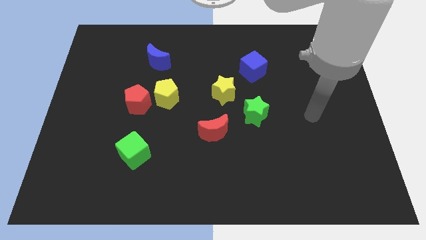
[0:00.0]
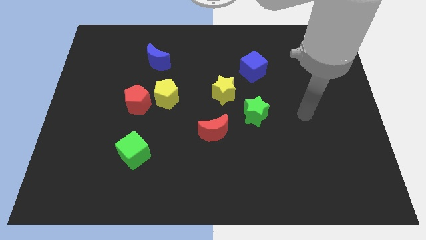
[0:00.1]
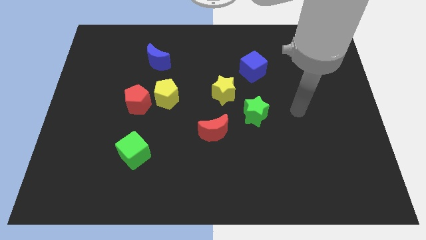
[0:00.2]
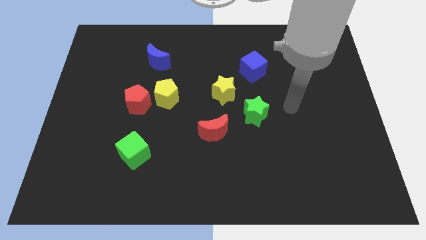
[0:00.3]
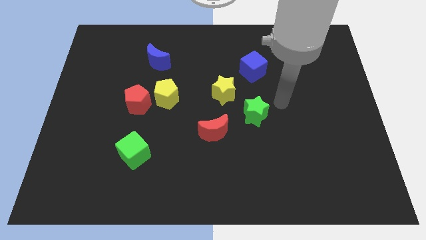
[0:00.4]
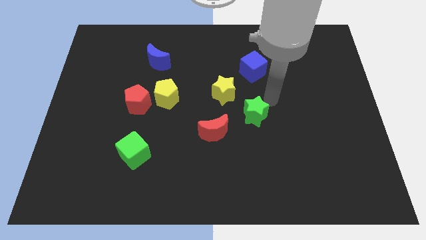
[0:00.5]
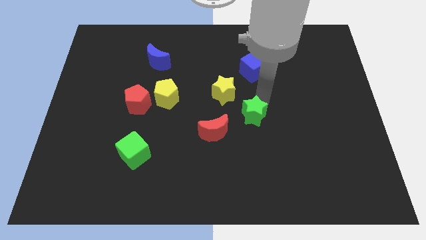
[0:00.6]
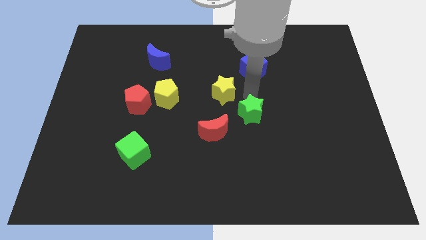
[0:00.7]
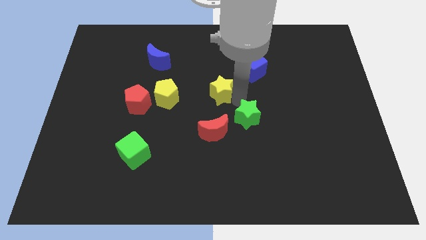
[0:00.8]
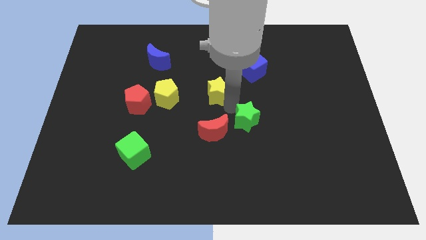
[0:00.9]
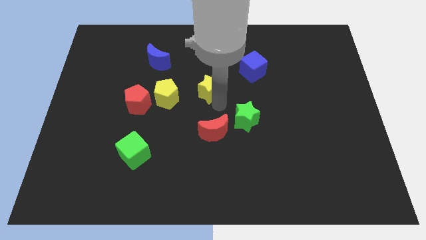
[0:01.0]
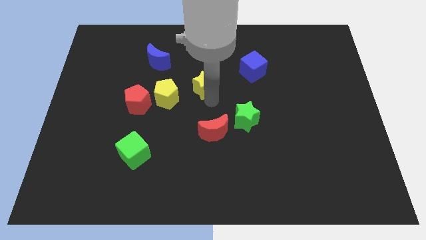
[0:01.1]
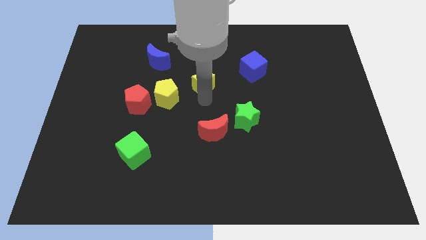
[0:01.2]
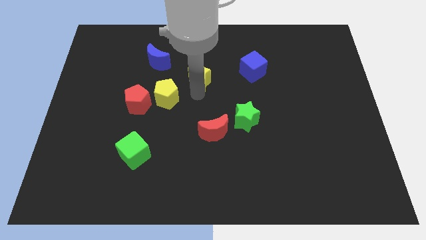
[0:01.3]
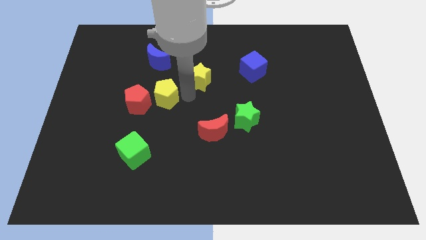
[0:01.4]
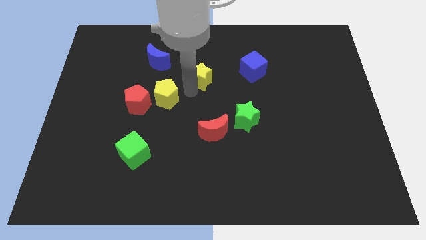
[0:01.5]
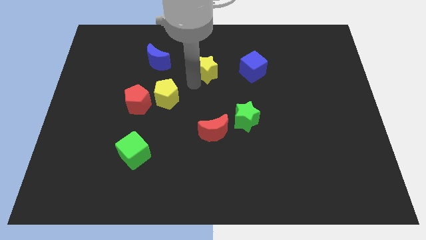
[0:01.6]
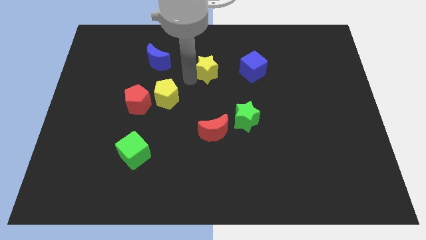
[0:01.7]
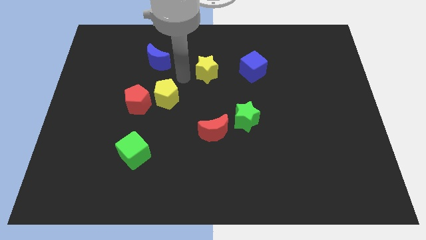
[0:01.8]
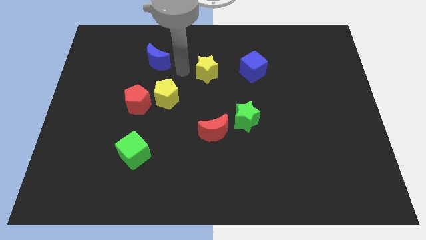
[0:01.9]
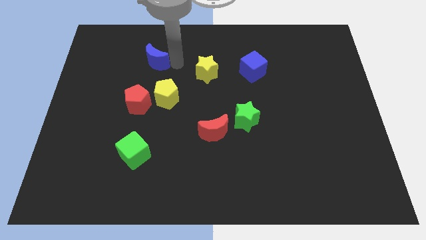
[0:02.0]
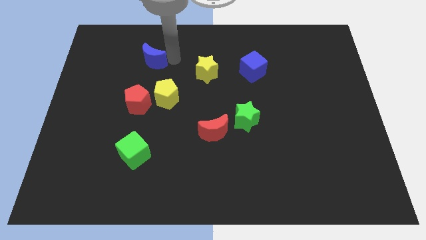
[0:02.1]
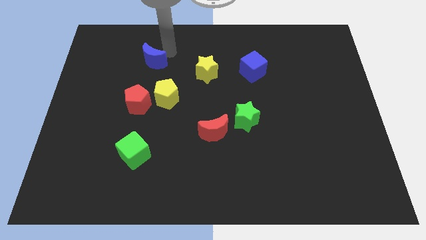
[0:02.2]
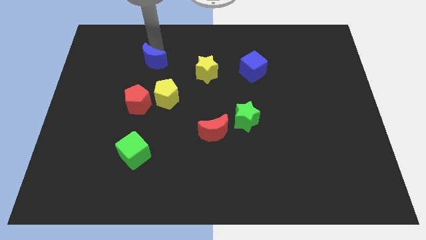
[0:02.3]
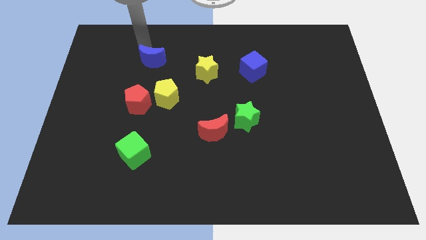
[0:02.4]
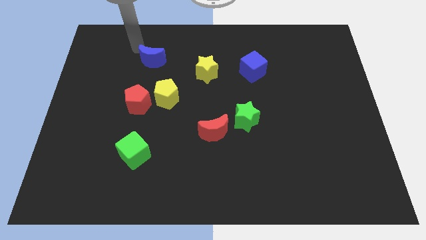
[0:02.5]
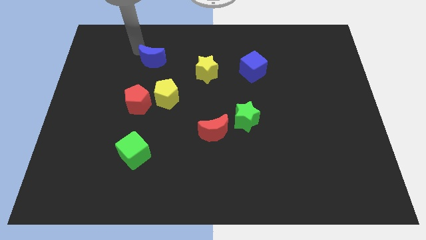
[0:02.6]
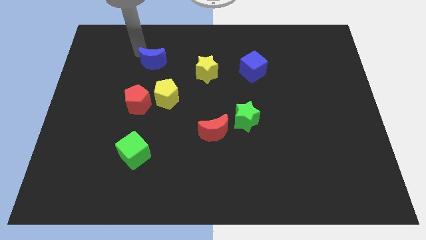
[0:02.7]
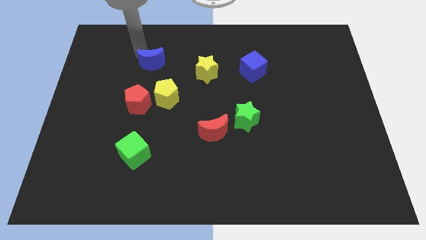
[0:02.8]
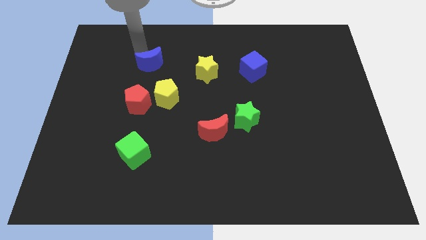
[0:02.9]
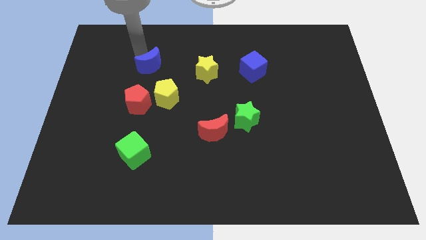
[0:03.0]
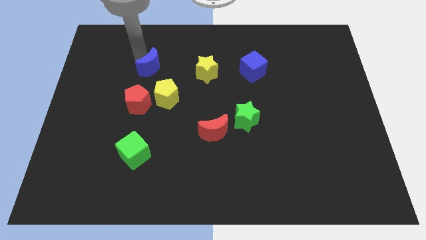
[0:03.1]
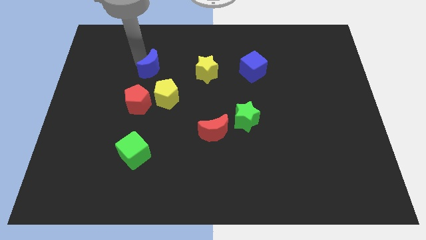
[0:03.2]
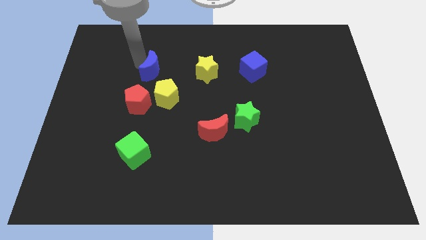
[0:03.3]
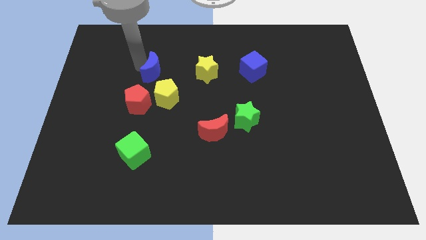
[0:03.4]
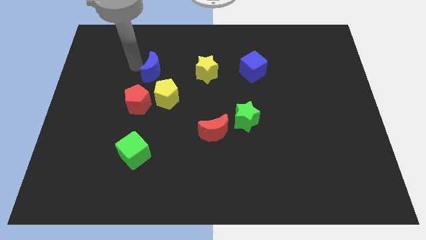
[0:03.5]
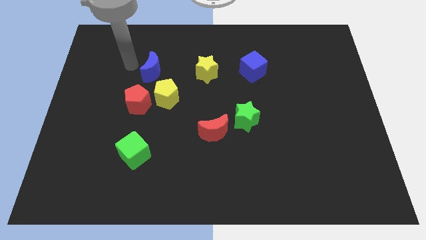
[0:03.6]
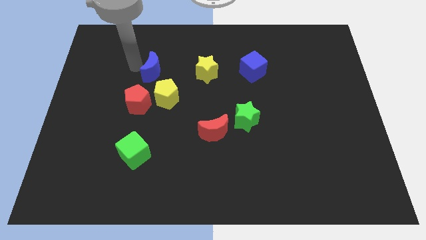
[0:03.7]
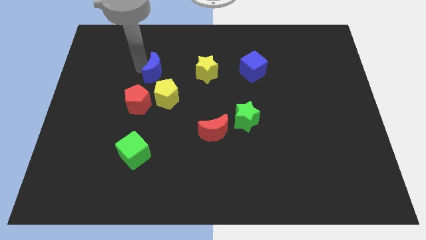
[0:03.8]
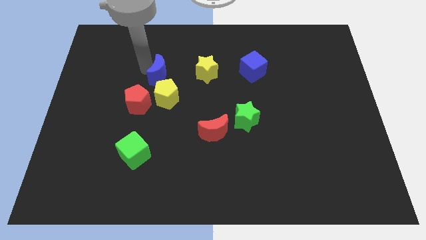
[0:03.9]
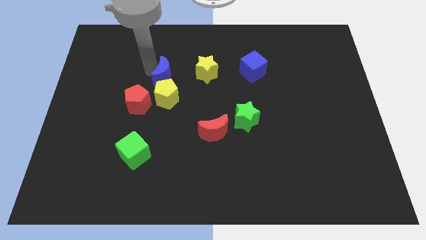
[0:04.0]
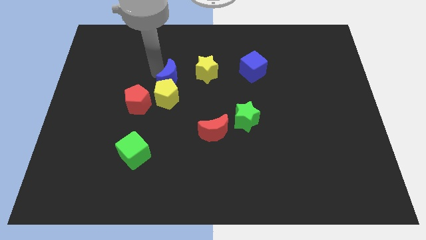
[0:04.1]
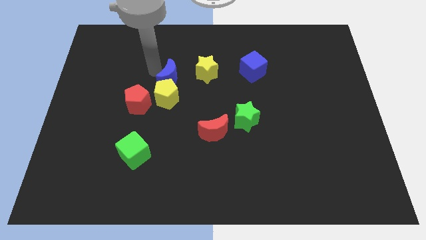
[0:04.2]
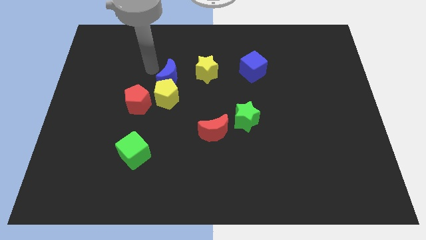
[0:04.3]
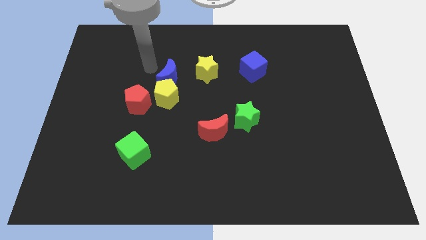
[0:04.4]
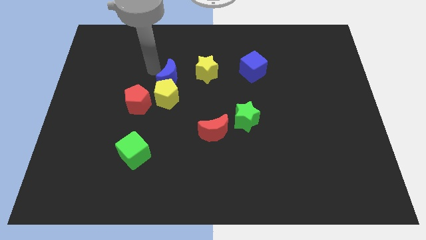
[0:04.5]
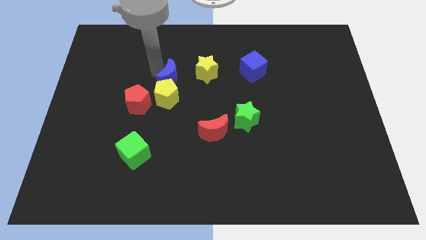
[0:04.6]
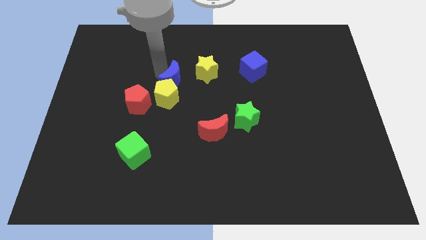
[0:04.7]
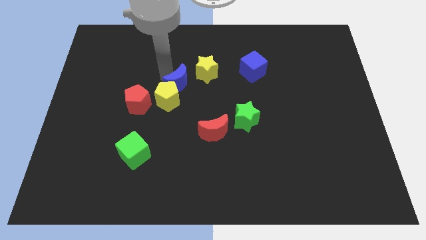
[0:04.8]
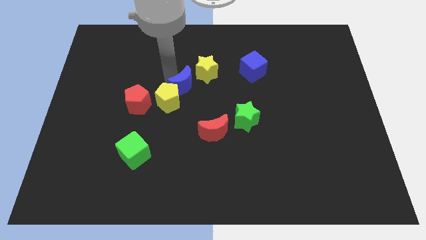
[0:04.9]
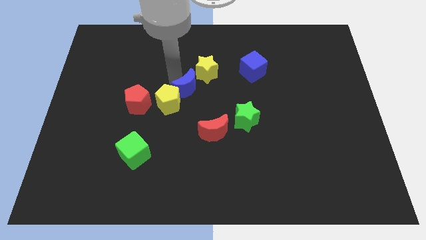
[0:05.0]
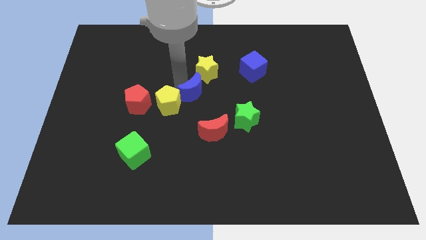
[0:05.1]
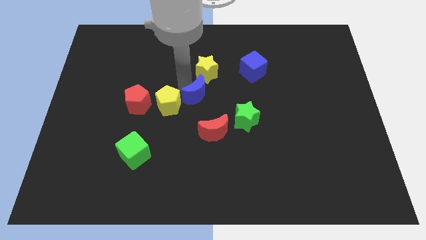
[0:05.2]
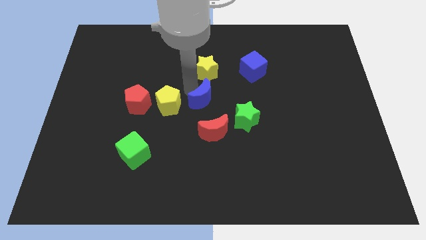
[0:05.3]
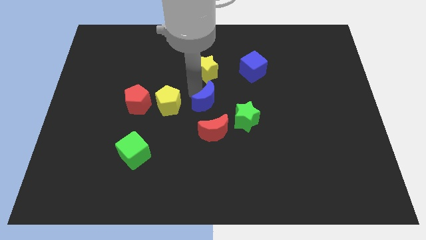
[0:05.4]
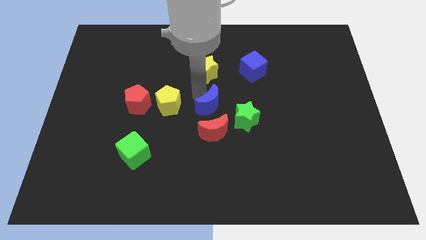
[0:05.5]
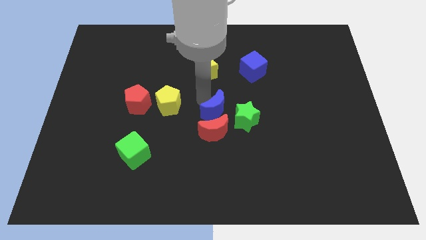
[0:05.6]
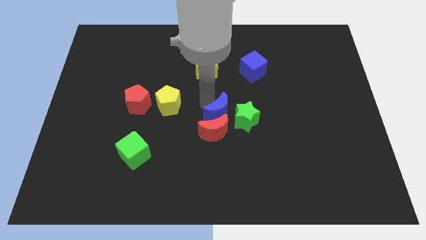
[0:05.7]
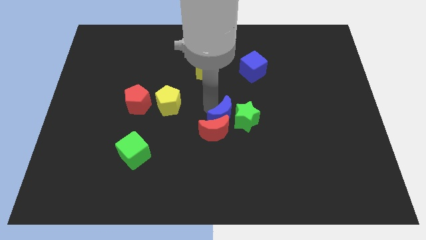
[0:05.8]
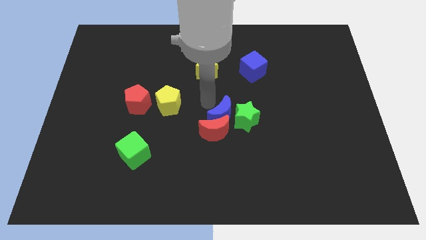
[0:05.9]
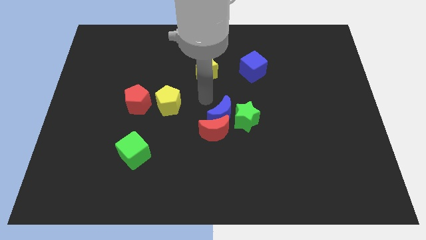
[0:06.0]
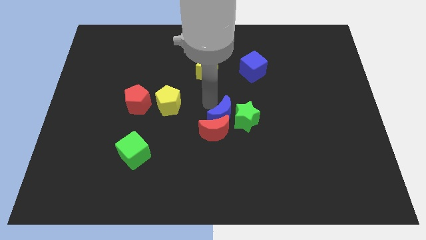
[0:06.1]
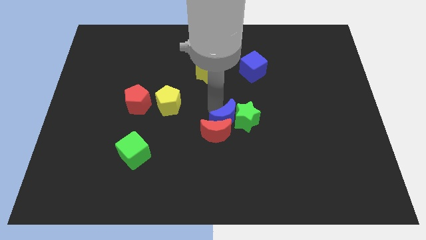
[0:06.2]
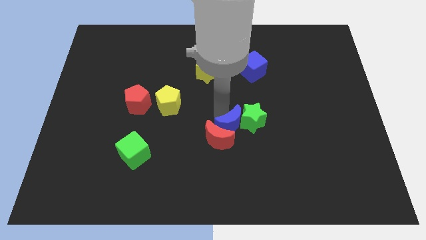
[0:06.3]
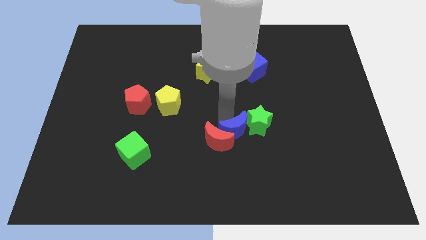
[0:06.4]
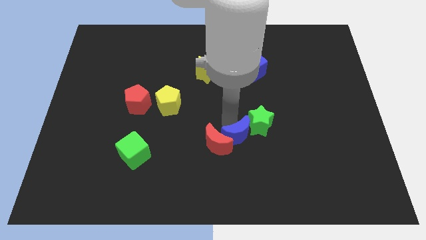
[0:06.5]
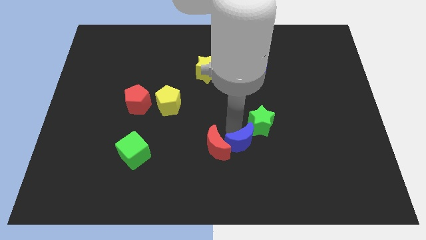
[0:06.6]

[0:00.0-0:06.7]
put the blue moon to the bottom side of the green star
